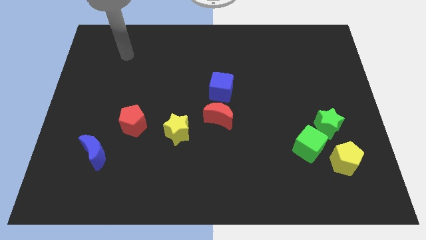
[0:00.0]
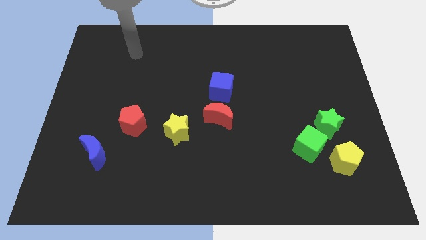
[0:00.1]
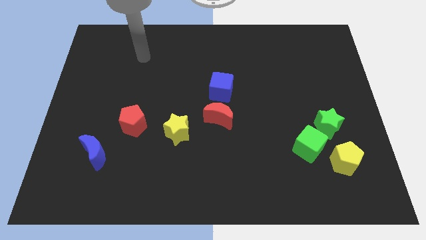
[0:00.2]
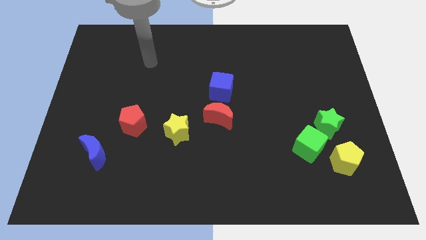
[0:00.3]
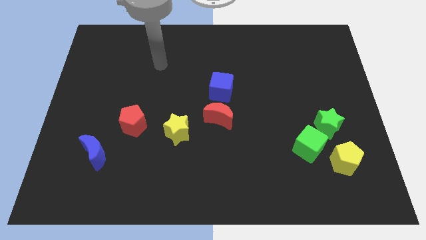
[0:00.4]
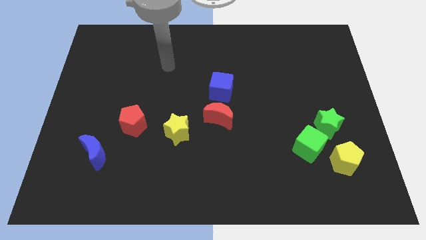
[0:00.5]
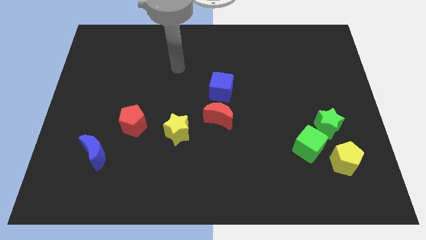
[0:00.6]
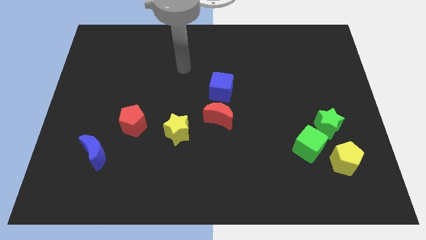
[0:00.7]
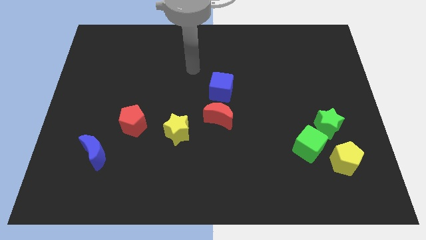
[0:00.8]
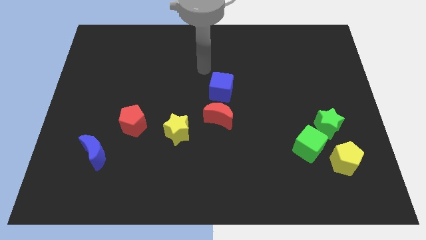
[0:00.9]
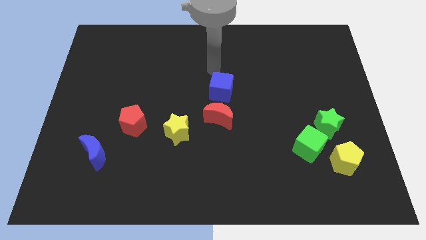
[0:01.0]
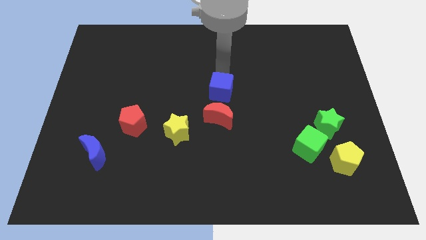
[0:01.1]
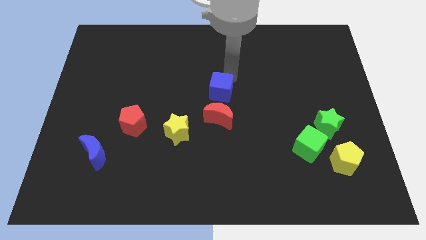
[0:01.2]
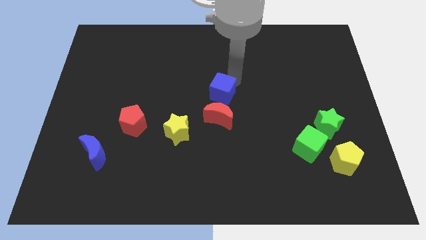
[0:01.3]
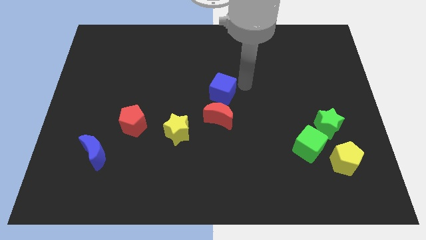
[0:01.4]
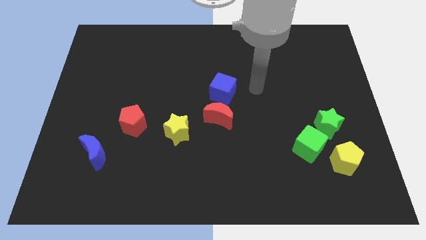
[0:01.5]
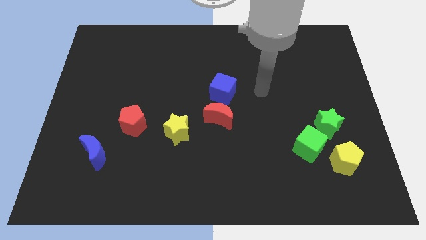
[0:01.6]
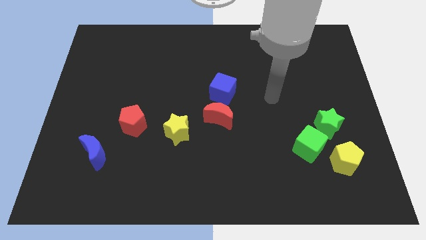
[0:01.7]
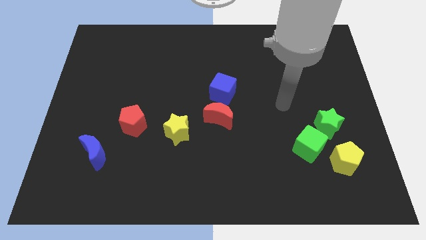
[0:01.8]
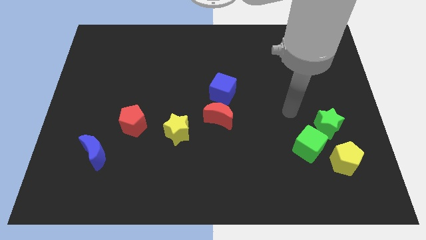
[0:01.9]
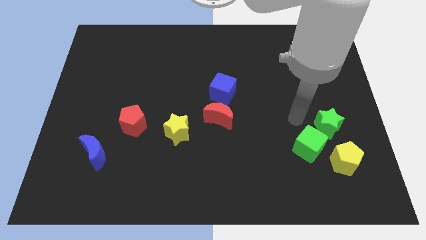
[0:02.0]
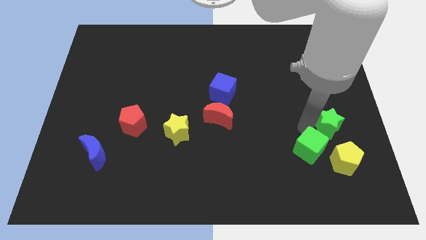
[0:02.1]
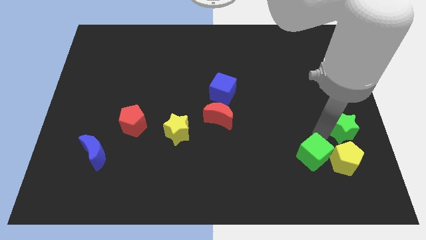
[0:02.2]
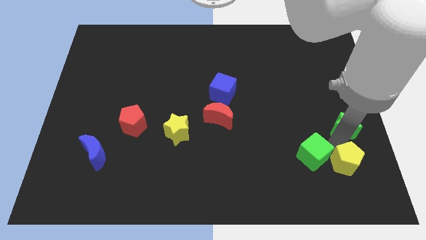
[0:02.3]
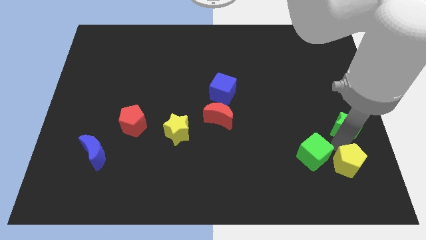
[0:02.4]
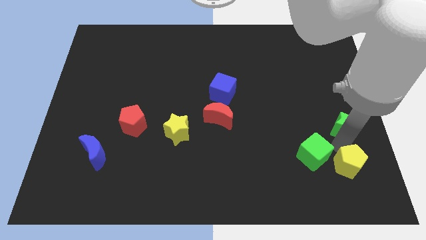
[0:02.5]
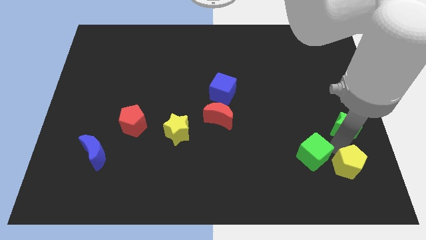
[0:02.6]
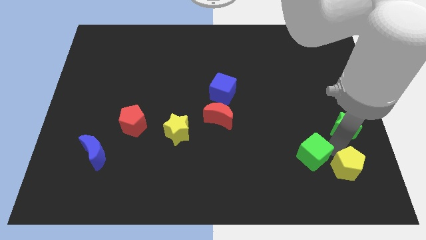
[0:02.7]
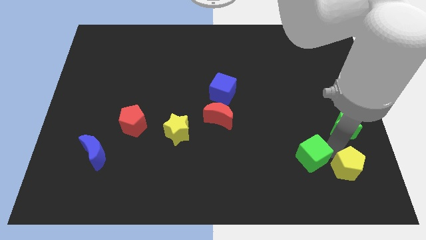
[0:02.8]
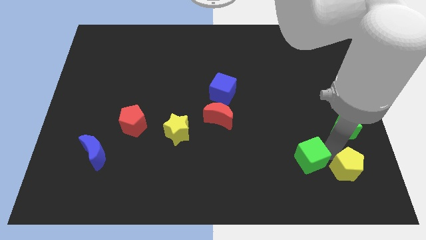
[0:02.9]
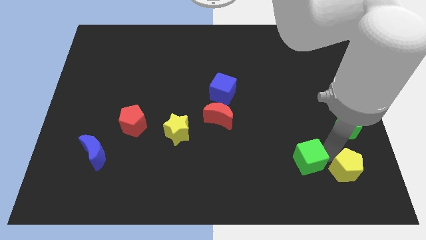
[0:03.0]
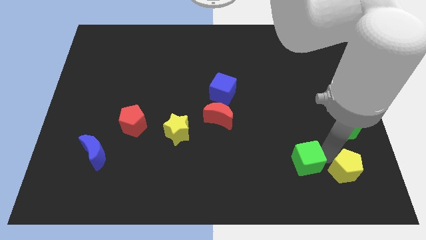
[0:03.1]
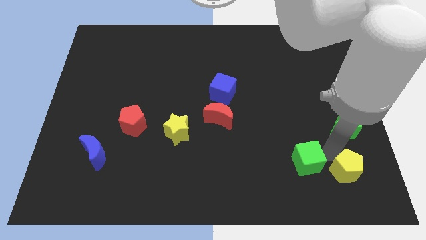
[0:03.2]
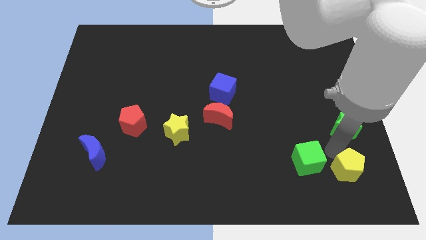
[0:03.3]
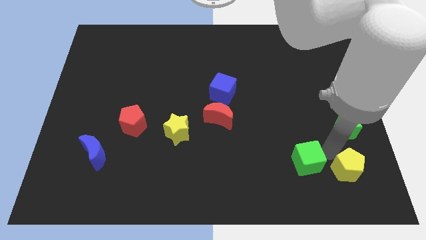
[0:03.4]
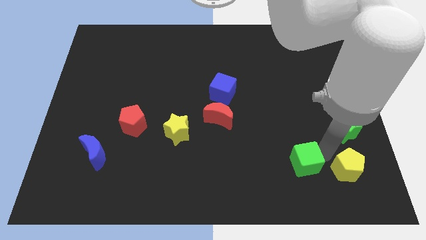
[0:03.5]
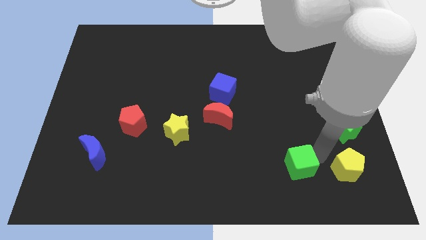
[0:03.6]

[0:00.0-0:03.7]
move the green cube away from the green star and yellow pentagon

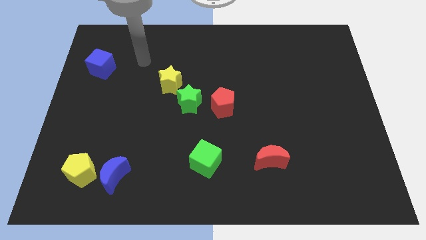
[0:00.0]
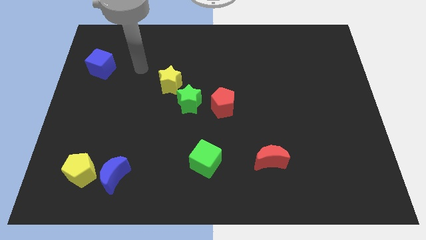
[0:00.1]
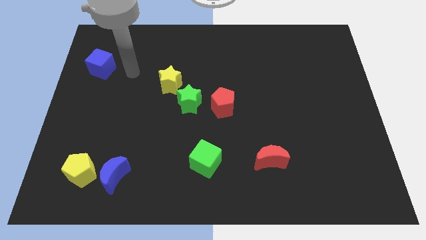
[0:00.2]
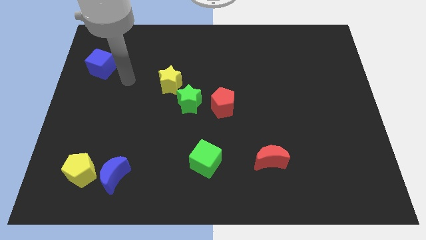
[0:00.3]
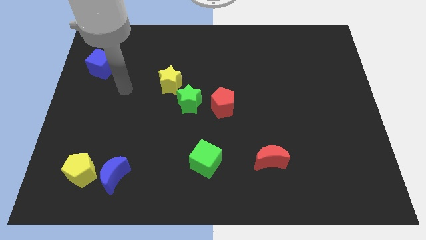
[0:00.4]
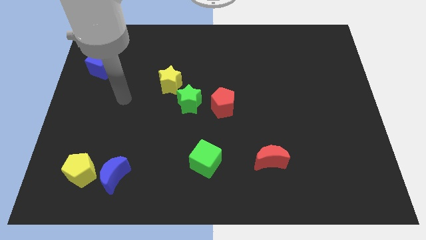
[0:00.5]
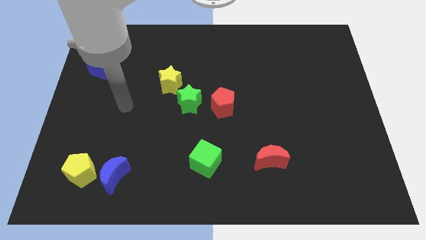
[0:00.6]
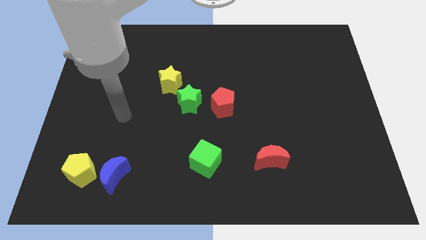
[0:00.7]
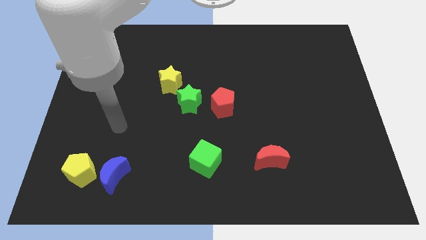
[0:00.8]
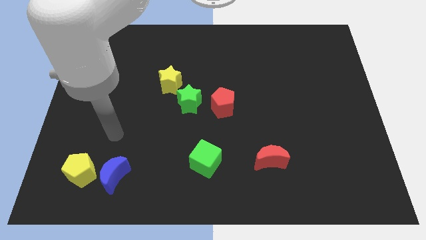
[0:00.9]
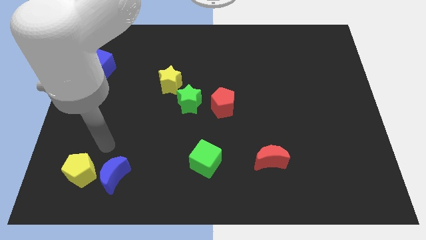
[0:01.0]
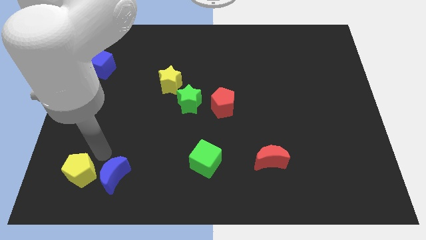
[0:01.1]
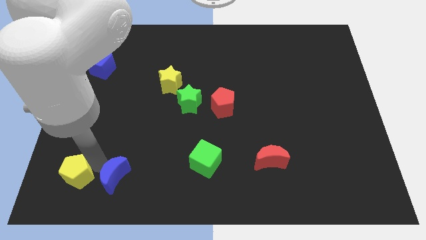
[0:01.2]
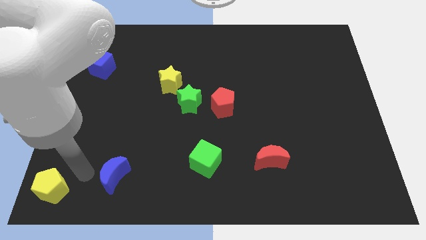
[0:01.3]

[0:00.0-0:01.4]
move the blue moon away from the yellow pentagon

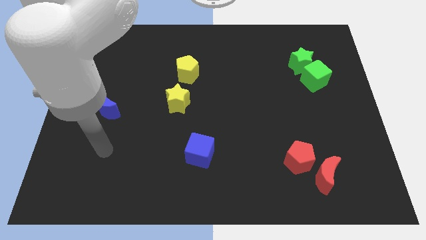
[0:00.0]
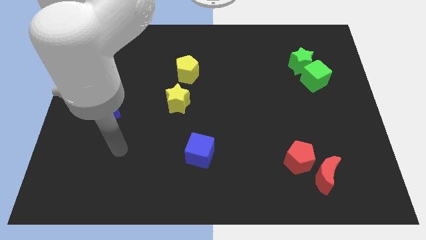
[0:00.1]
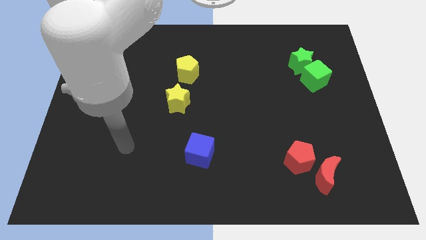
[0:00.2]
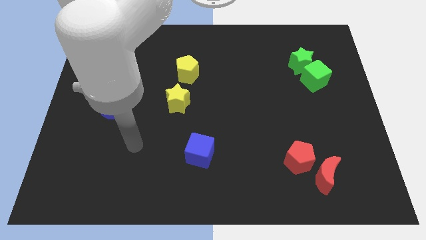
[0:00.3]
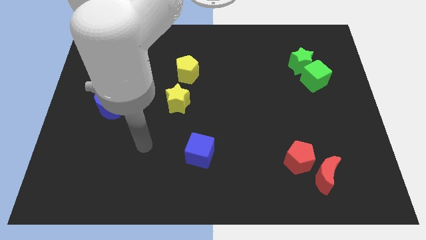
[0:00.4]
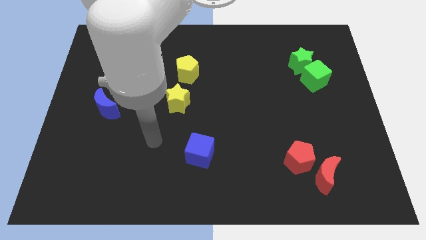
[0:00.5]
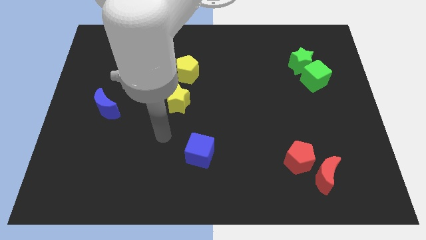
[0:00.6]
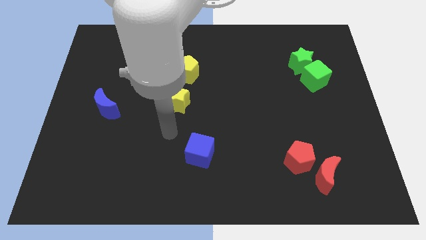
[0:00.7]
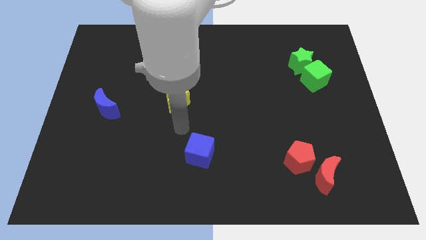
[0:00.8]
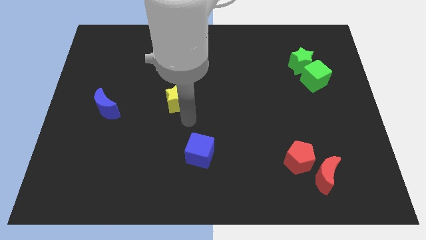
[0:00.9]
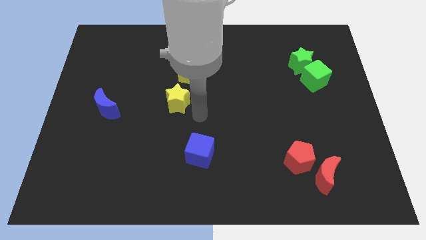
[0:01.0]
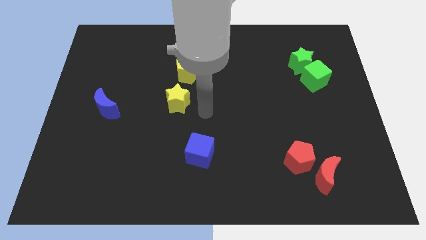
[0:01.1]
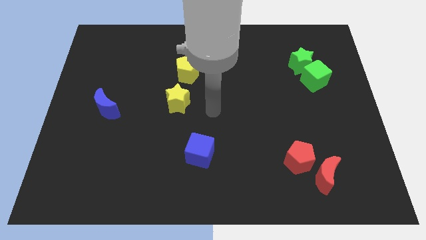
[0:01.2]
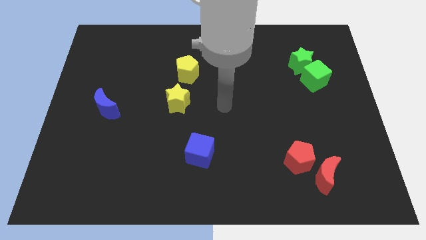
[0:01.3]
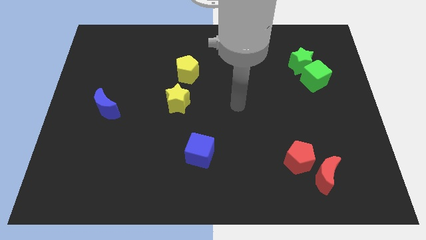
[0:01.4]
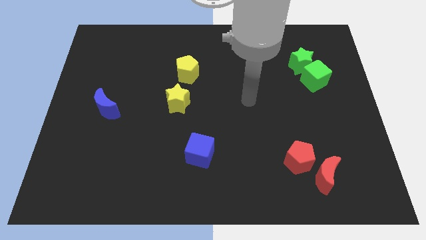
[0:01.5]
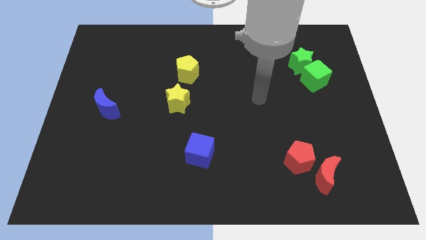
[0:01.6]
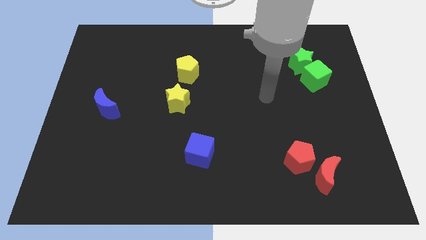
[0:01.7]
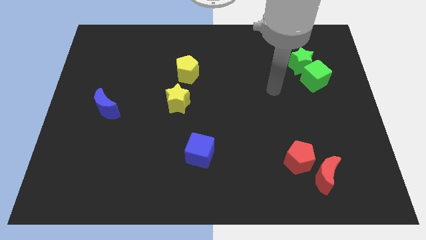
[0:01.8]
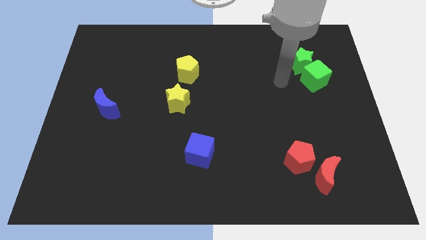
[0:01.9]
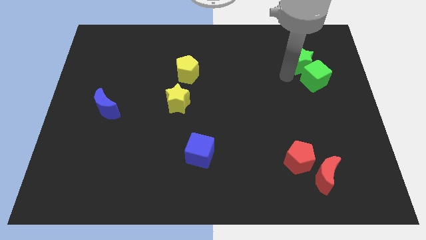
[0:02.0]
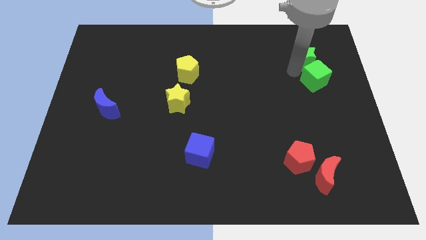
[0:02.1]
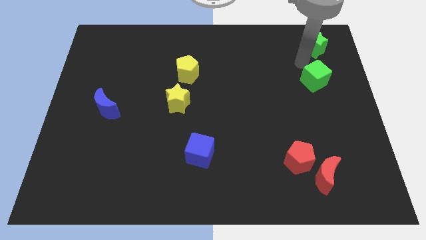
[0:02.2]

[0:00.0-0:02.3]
move the green cube away from the green star

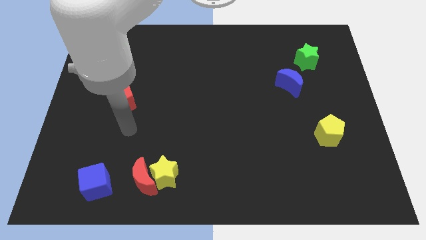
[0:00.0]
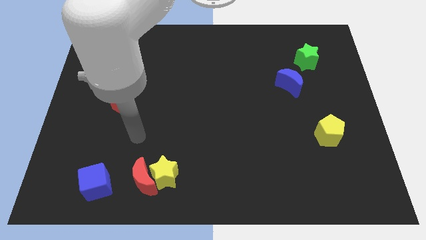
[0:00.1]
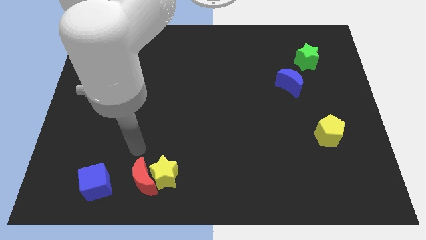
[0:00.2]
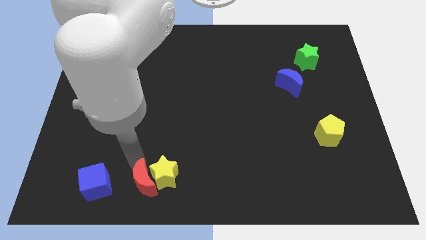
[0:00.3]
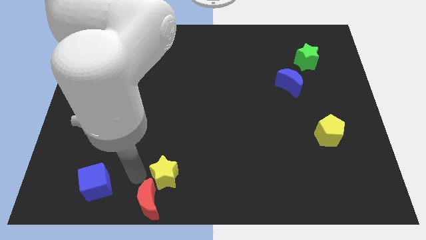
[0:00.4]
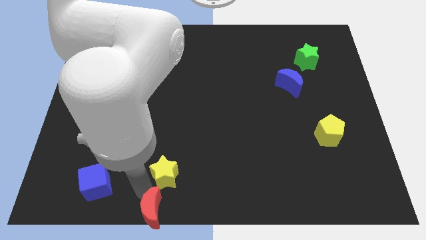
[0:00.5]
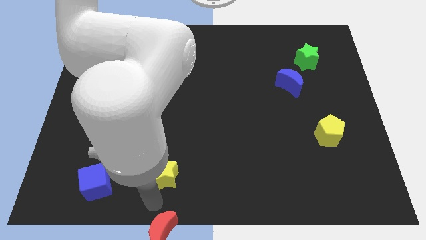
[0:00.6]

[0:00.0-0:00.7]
pull the yellow star apart from the red moon

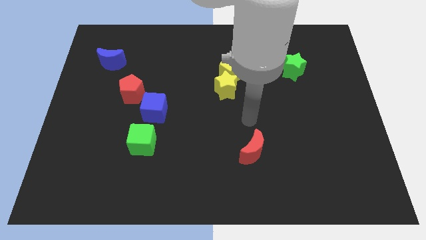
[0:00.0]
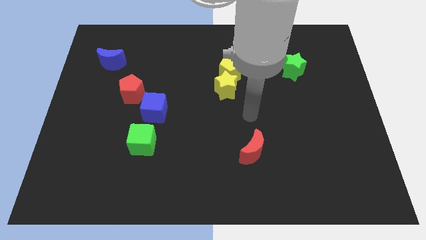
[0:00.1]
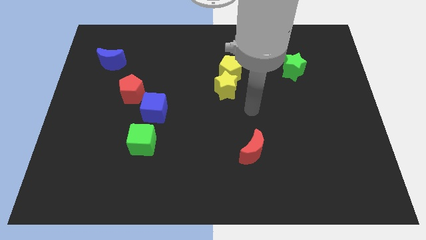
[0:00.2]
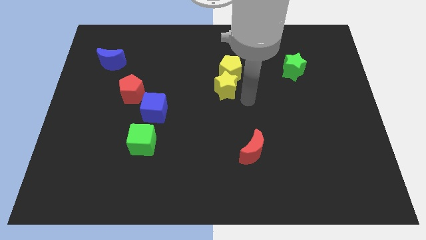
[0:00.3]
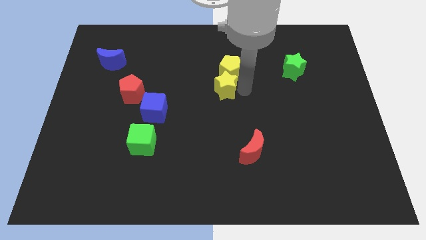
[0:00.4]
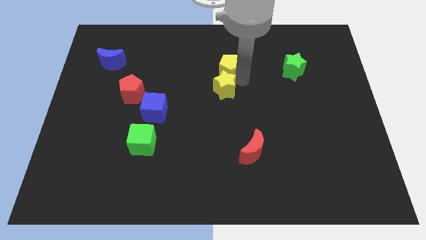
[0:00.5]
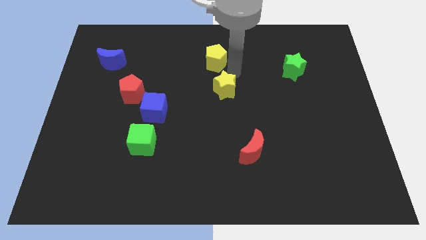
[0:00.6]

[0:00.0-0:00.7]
pull the yellow star apart from the yellow pentagon

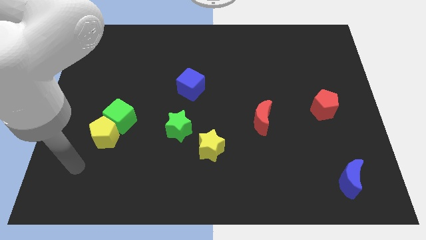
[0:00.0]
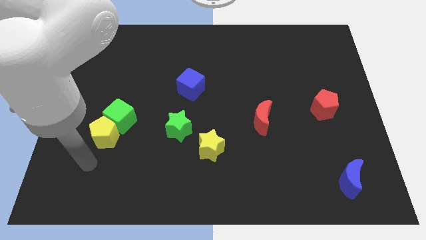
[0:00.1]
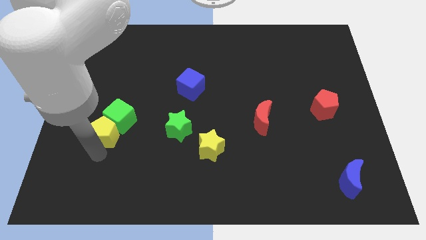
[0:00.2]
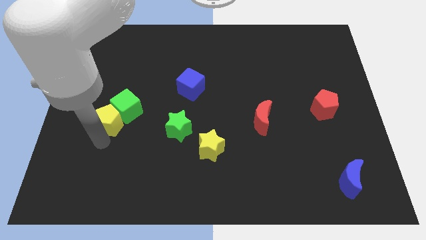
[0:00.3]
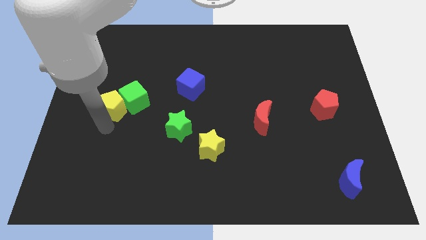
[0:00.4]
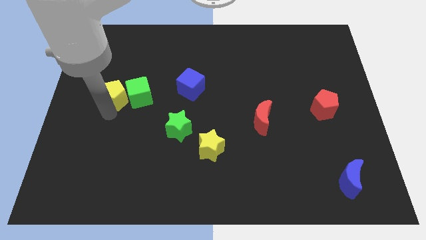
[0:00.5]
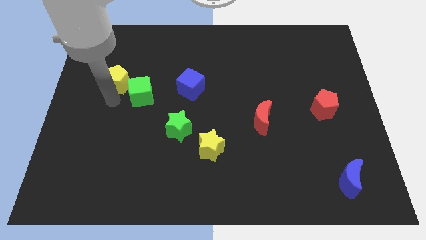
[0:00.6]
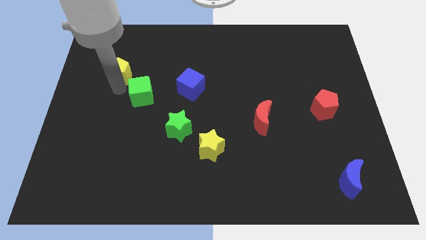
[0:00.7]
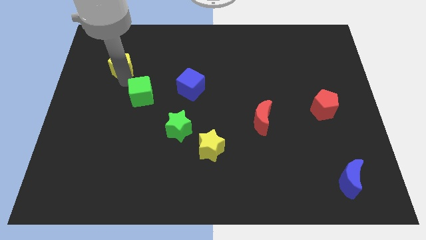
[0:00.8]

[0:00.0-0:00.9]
pull the green cube apart from the yellow pentagon
